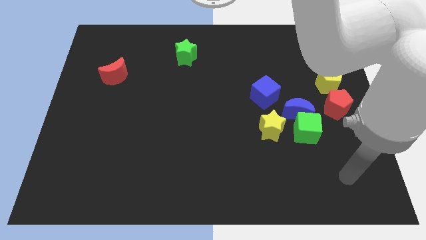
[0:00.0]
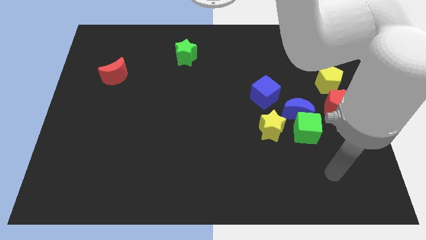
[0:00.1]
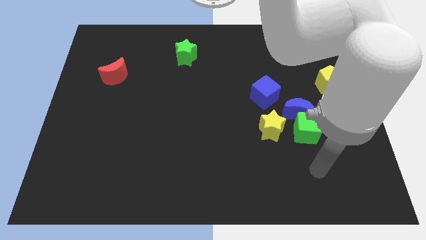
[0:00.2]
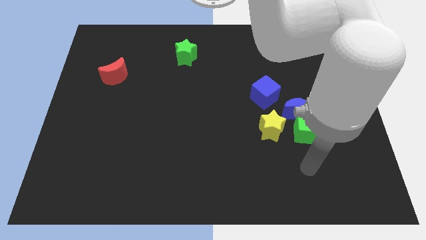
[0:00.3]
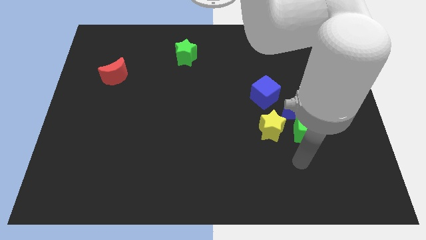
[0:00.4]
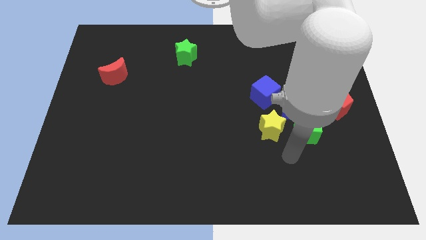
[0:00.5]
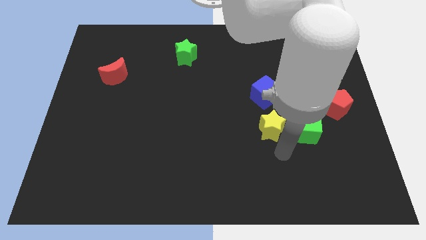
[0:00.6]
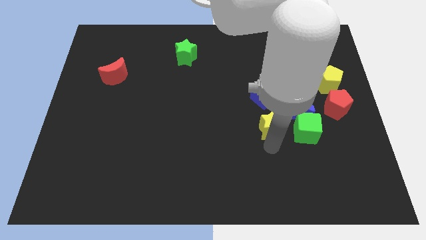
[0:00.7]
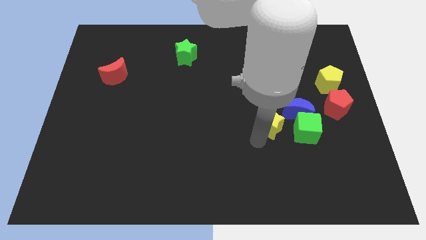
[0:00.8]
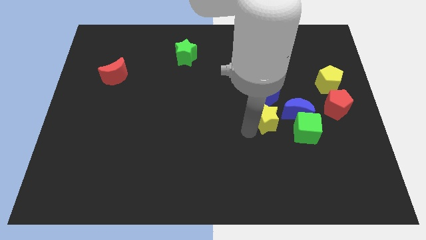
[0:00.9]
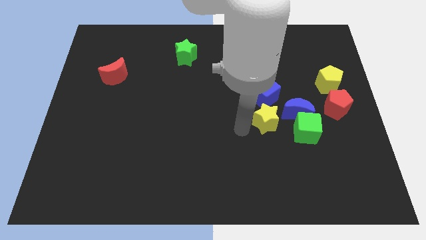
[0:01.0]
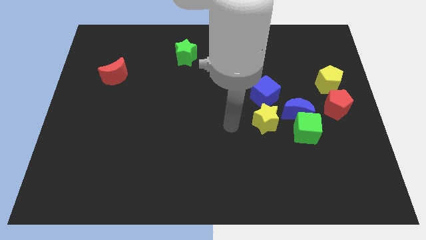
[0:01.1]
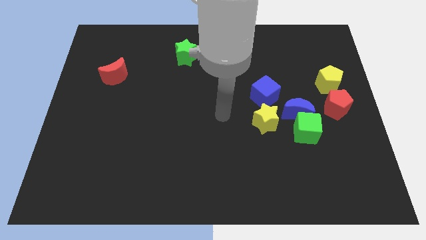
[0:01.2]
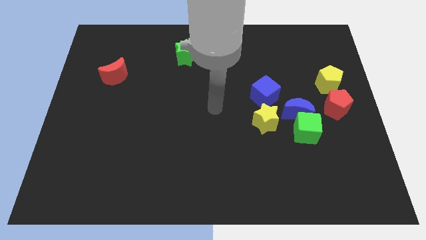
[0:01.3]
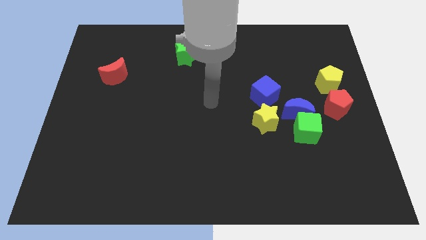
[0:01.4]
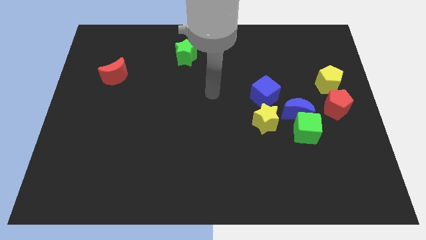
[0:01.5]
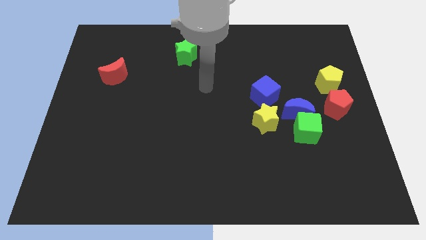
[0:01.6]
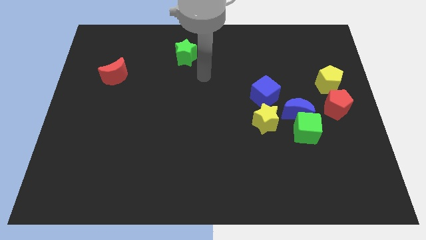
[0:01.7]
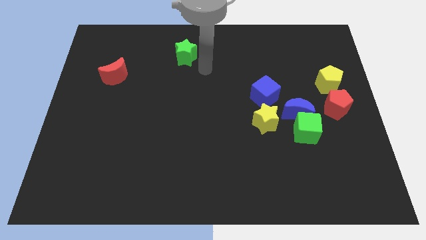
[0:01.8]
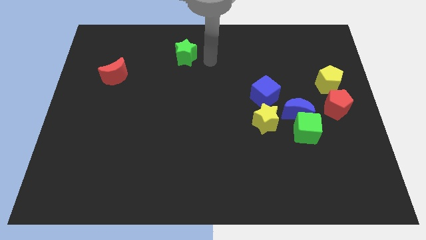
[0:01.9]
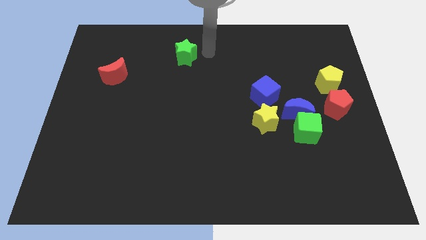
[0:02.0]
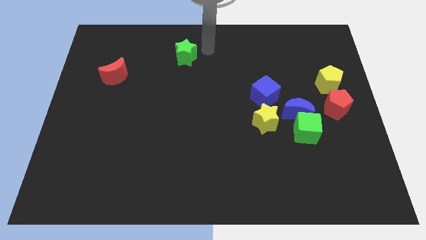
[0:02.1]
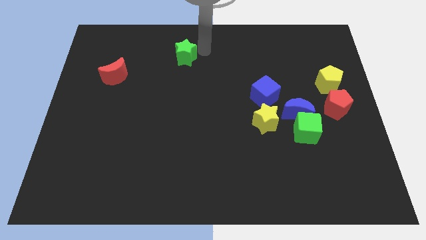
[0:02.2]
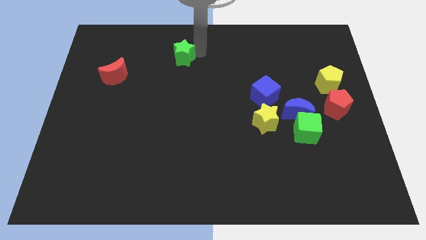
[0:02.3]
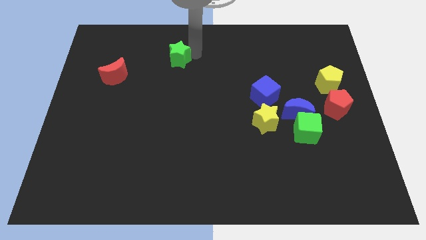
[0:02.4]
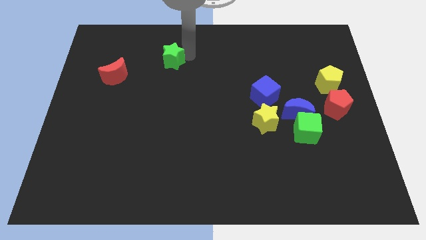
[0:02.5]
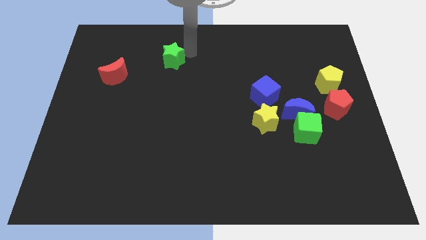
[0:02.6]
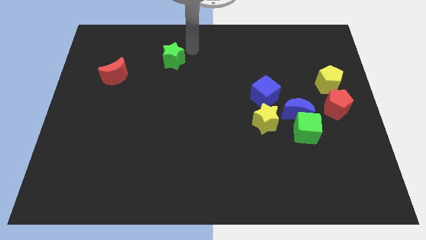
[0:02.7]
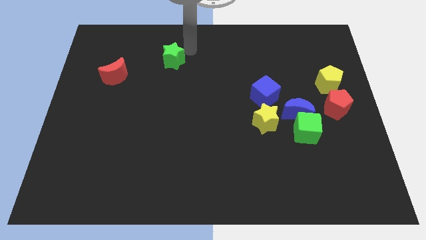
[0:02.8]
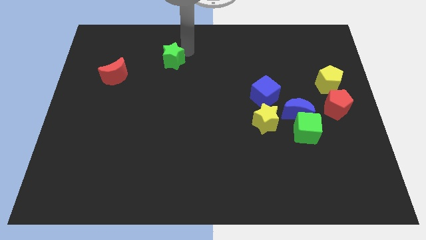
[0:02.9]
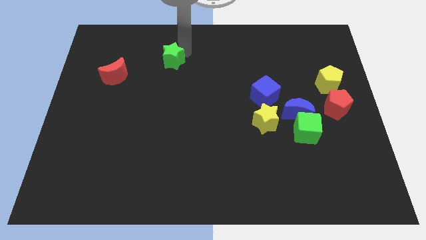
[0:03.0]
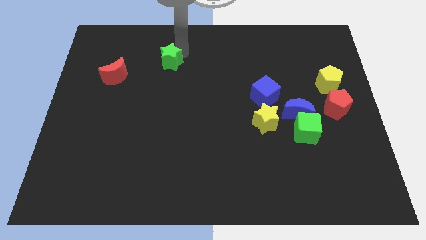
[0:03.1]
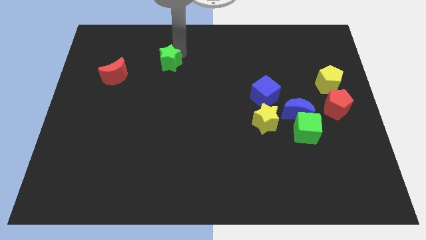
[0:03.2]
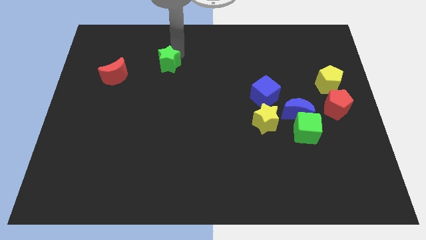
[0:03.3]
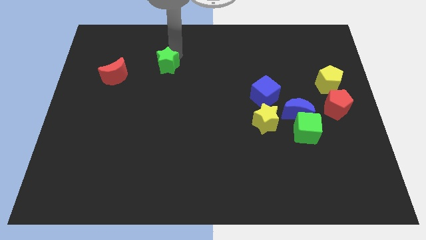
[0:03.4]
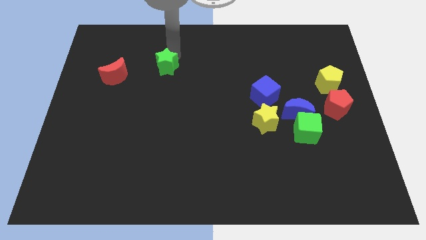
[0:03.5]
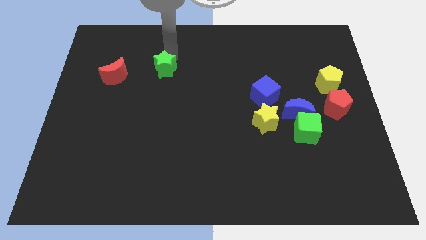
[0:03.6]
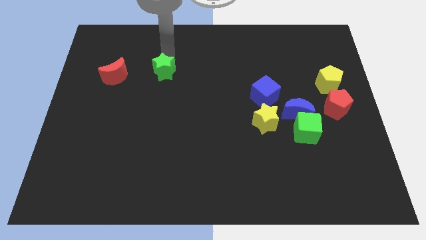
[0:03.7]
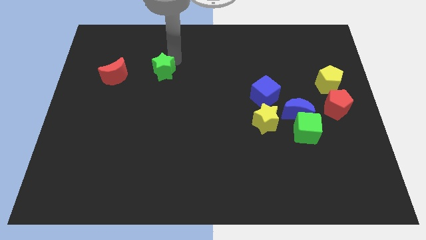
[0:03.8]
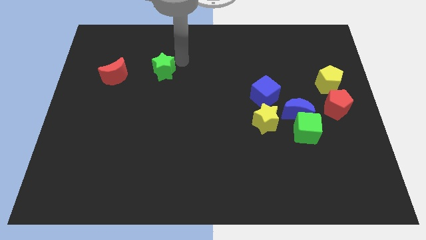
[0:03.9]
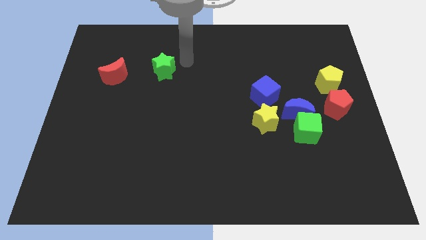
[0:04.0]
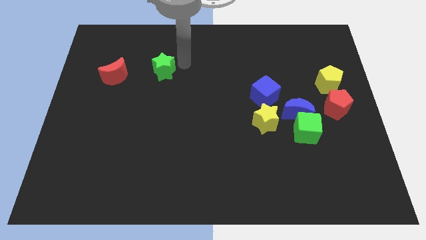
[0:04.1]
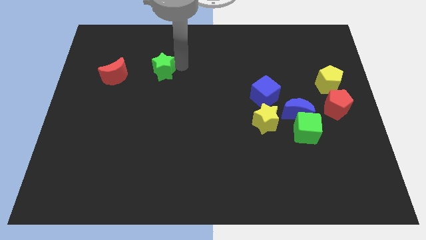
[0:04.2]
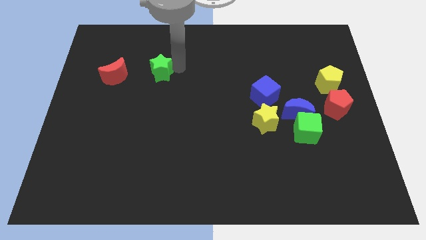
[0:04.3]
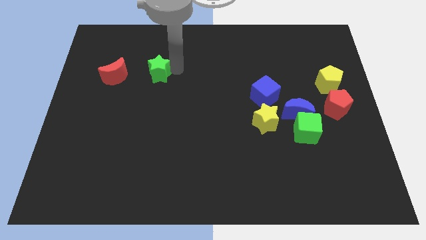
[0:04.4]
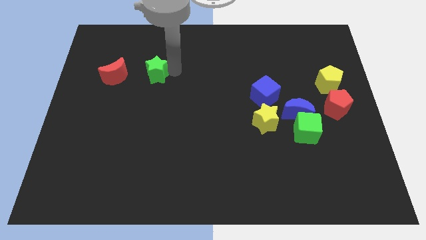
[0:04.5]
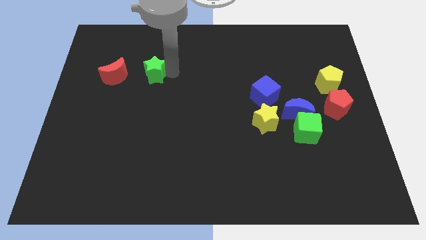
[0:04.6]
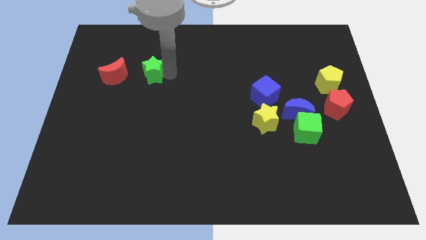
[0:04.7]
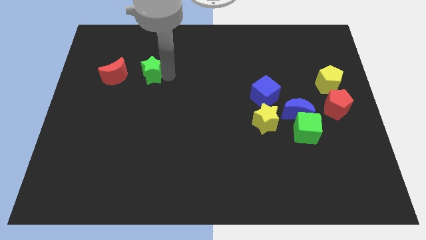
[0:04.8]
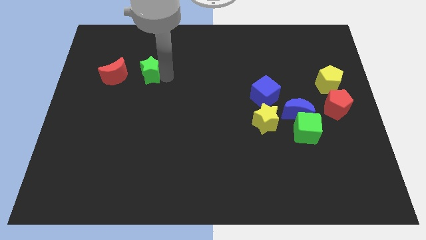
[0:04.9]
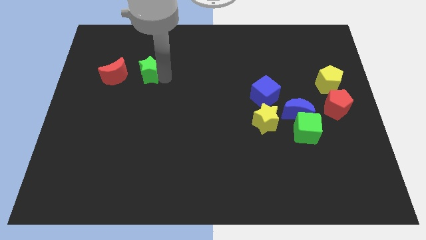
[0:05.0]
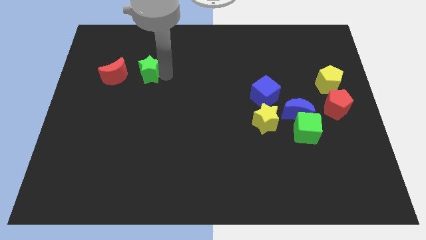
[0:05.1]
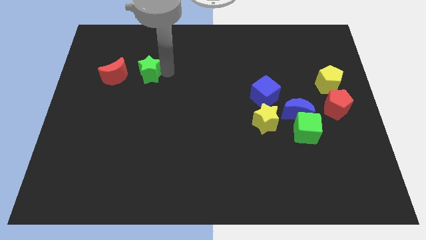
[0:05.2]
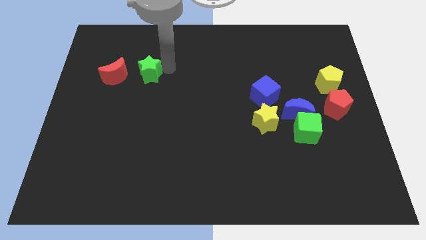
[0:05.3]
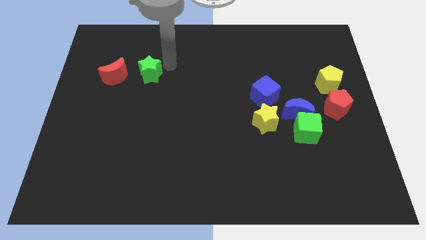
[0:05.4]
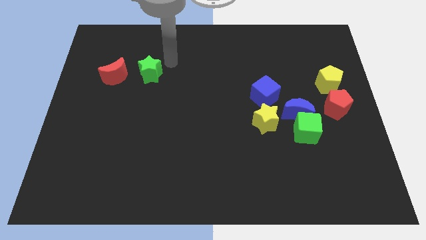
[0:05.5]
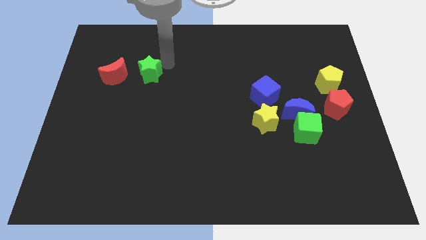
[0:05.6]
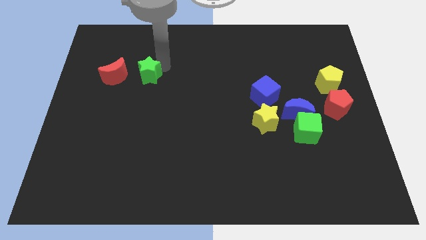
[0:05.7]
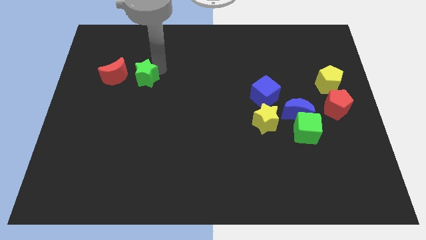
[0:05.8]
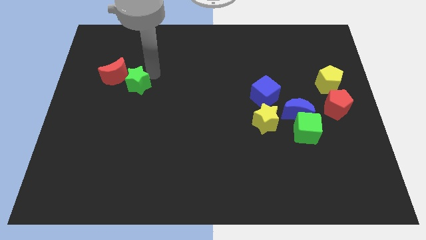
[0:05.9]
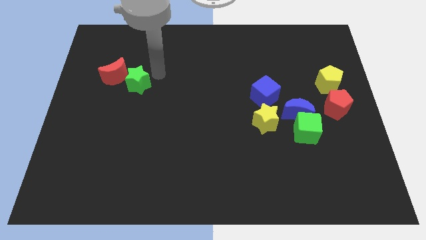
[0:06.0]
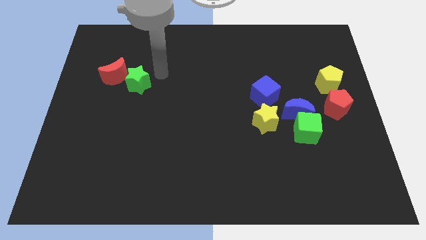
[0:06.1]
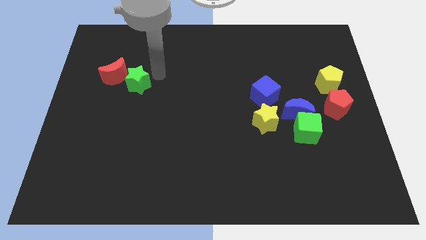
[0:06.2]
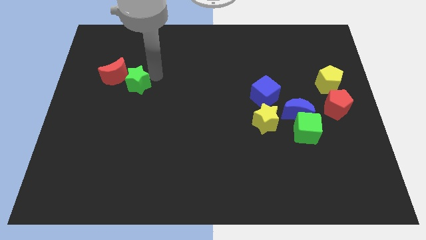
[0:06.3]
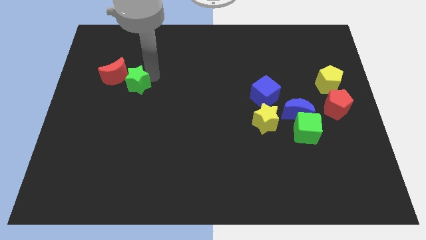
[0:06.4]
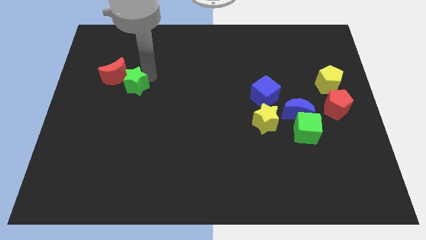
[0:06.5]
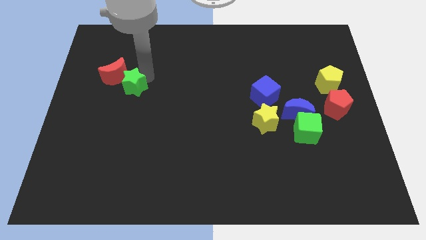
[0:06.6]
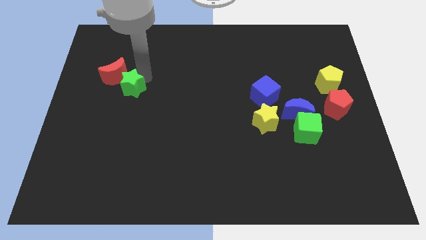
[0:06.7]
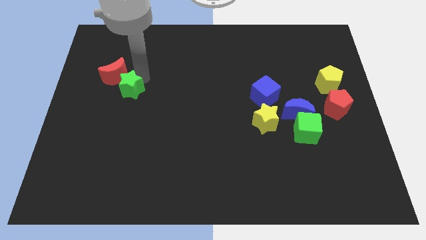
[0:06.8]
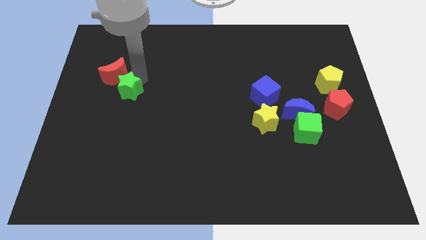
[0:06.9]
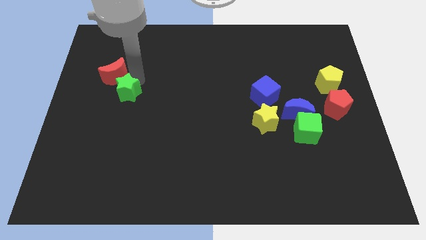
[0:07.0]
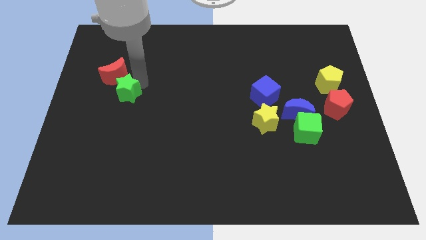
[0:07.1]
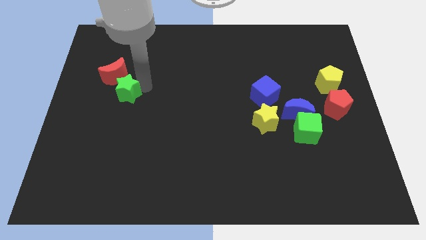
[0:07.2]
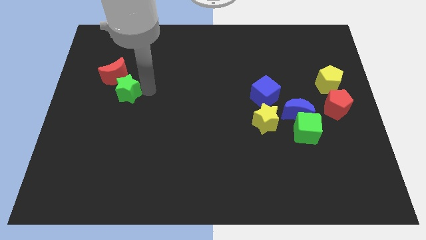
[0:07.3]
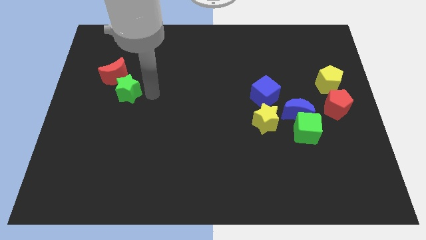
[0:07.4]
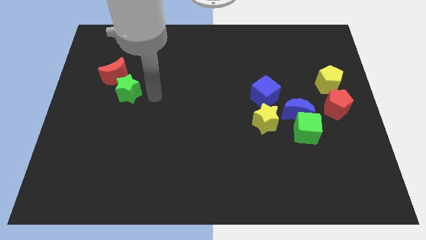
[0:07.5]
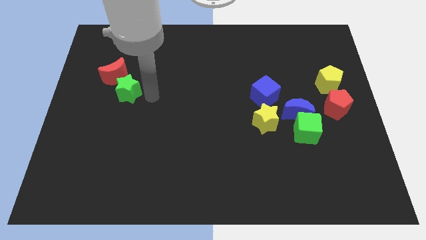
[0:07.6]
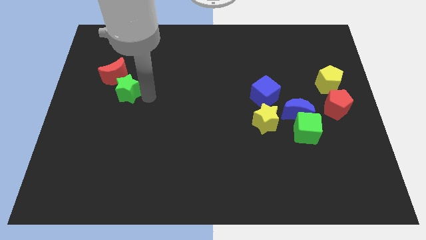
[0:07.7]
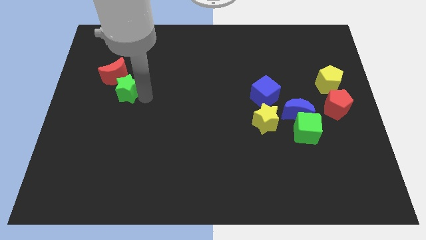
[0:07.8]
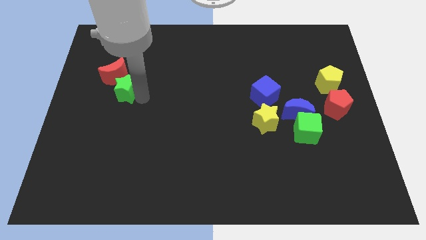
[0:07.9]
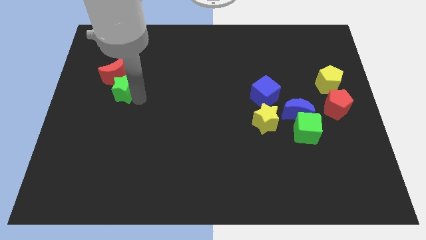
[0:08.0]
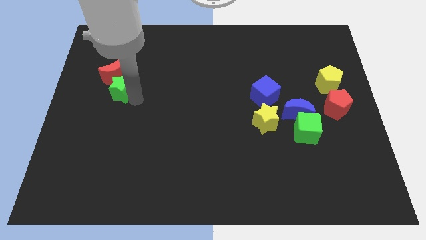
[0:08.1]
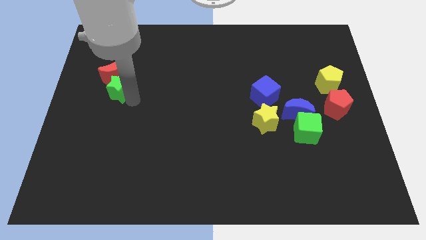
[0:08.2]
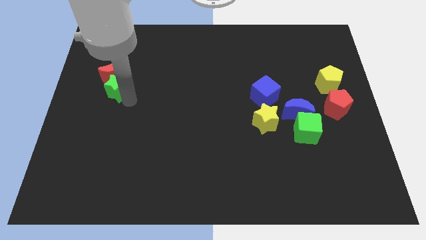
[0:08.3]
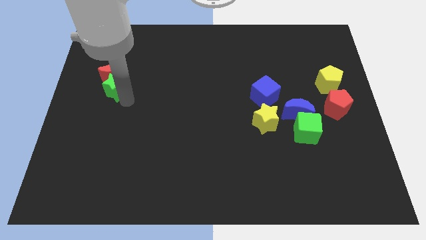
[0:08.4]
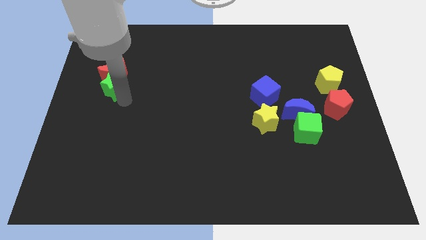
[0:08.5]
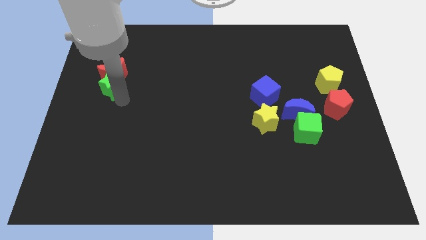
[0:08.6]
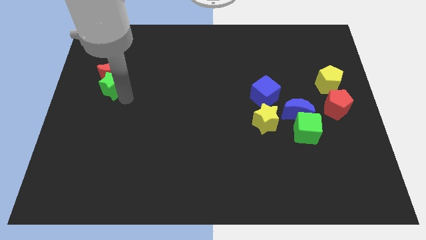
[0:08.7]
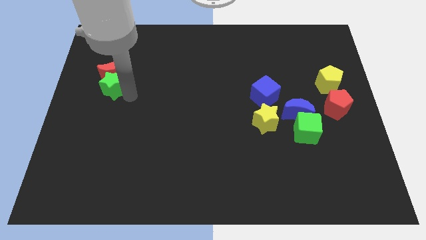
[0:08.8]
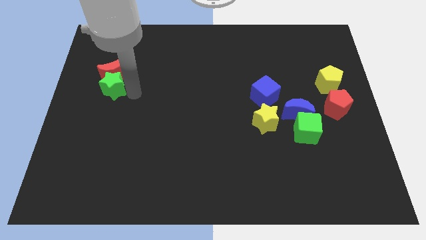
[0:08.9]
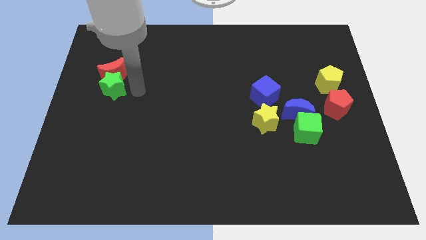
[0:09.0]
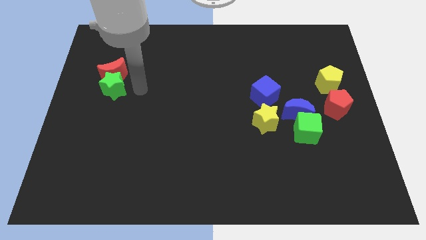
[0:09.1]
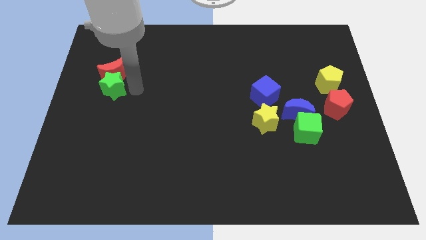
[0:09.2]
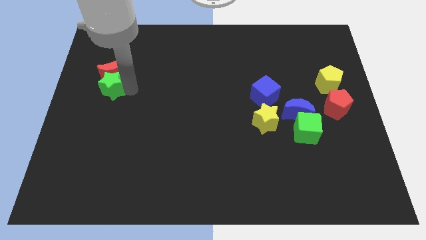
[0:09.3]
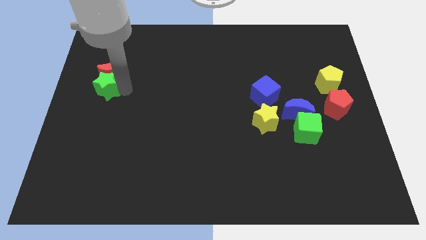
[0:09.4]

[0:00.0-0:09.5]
put the green star to the left side
